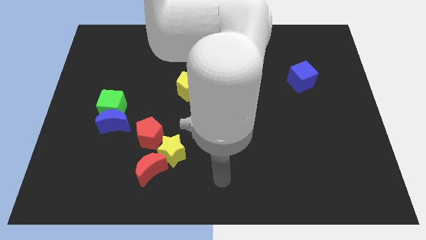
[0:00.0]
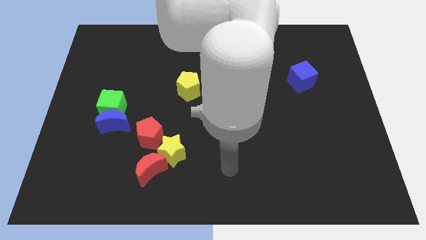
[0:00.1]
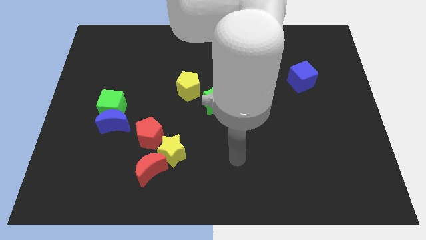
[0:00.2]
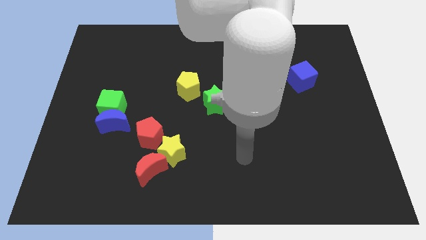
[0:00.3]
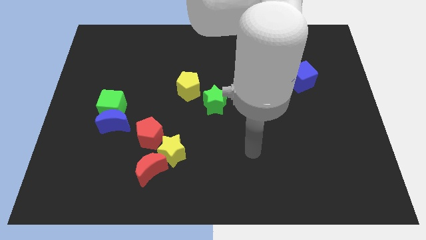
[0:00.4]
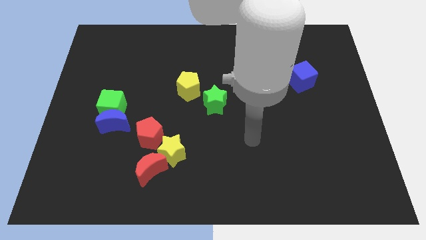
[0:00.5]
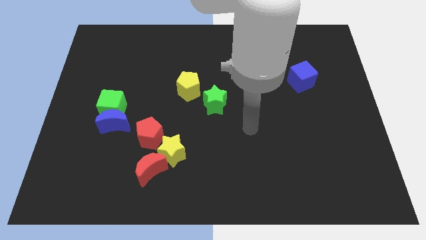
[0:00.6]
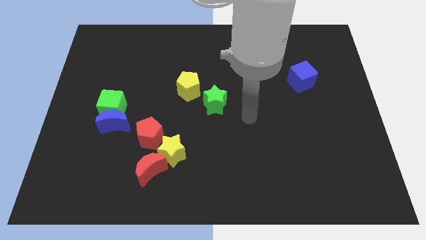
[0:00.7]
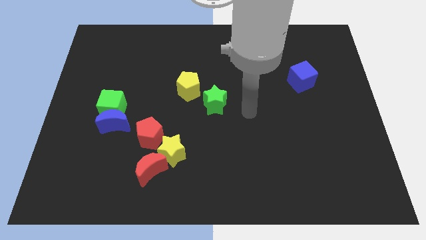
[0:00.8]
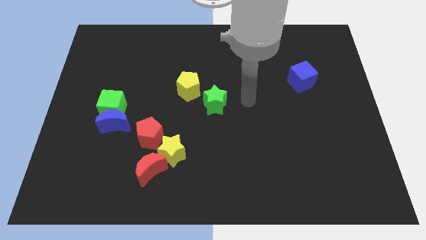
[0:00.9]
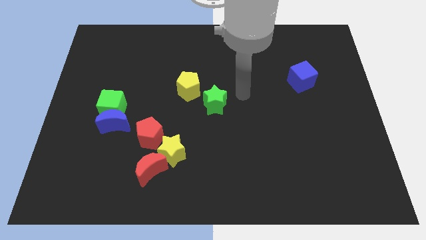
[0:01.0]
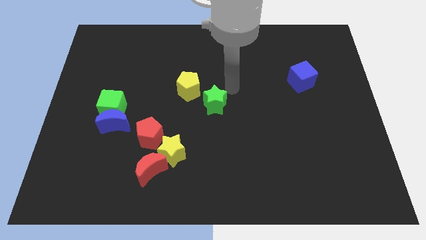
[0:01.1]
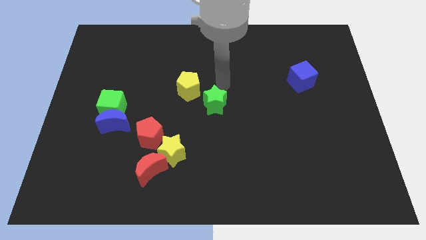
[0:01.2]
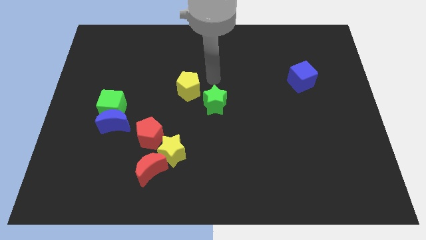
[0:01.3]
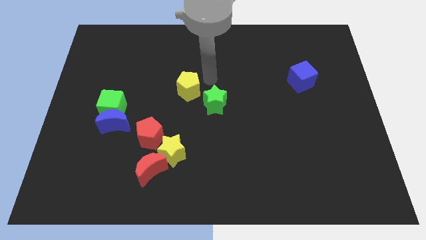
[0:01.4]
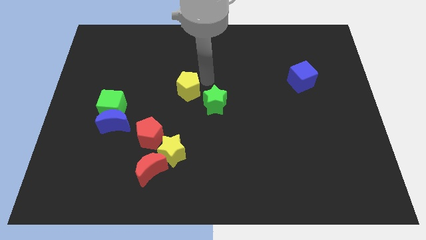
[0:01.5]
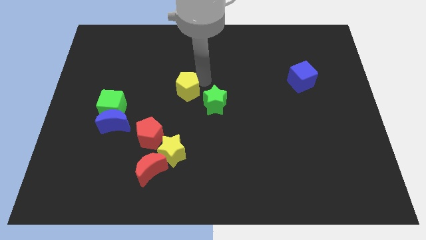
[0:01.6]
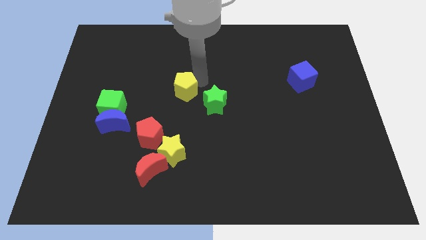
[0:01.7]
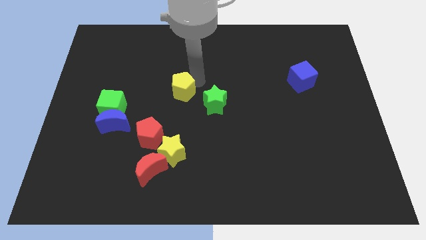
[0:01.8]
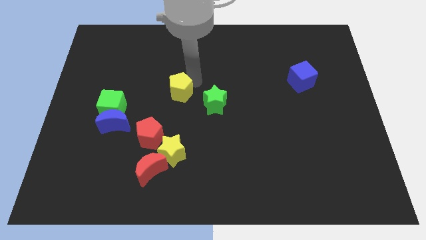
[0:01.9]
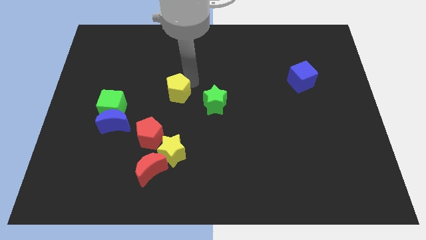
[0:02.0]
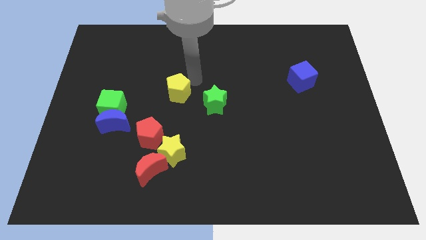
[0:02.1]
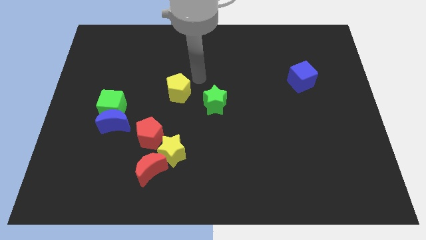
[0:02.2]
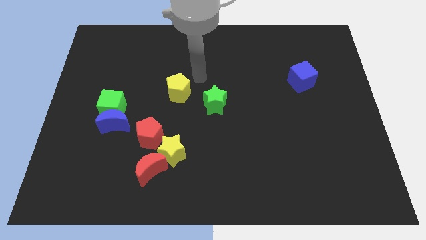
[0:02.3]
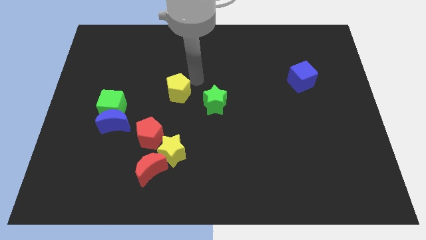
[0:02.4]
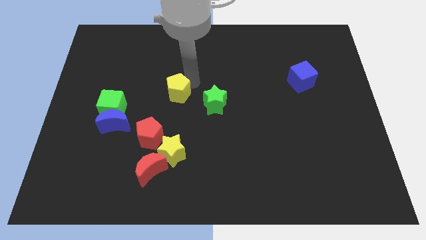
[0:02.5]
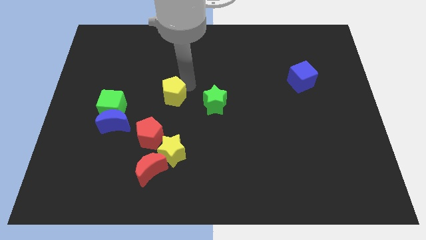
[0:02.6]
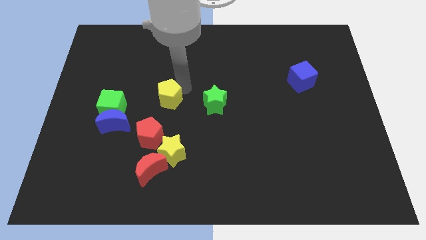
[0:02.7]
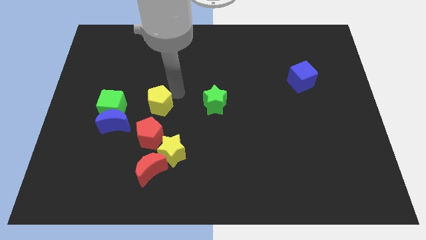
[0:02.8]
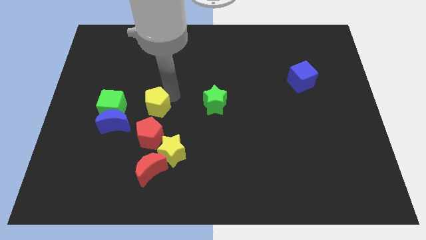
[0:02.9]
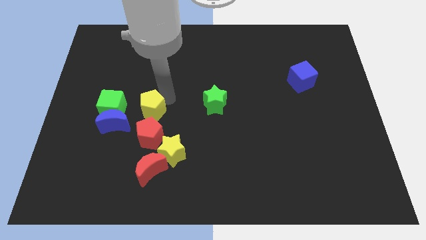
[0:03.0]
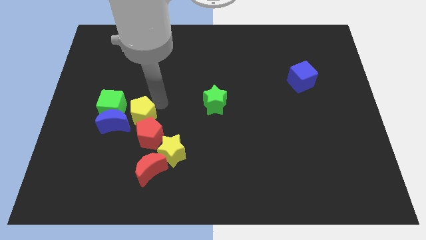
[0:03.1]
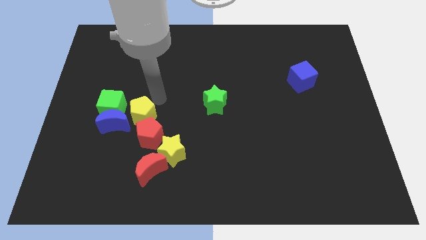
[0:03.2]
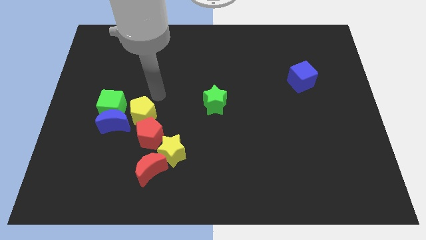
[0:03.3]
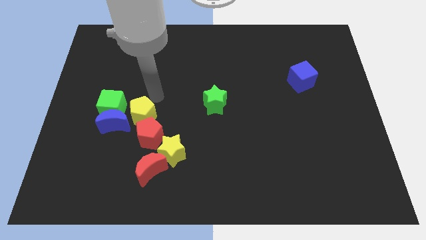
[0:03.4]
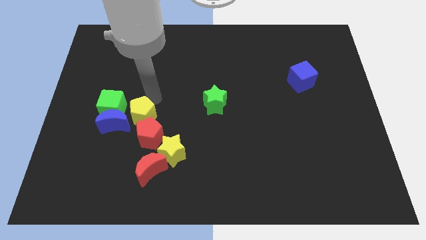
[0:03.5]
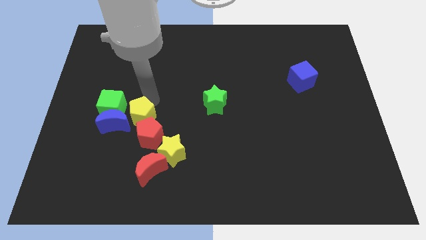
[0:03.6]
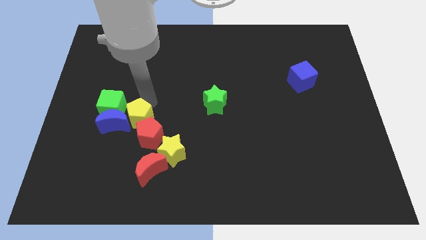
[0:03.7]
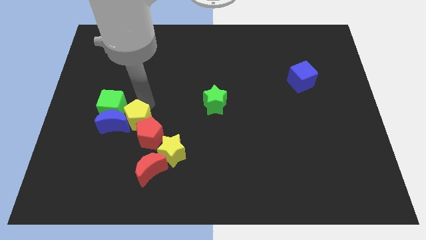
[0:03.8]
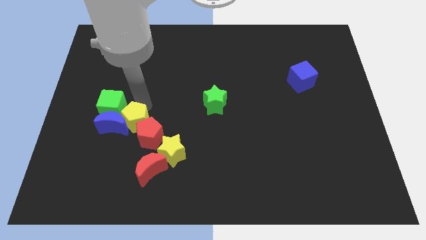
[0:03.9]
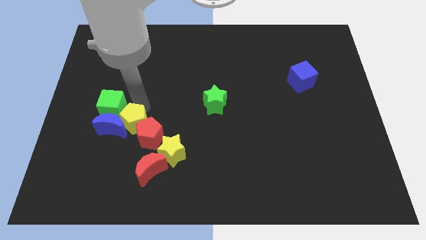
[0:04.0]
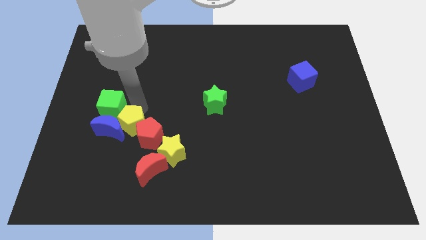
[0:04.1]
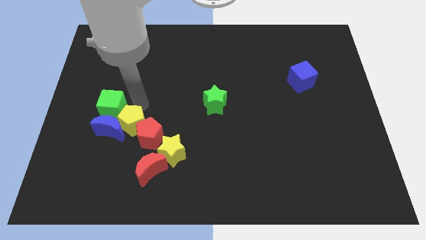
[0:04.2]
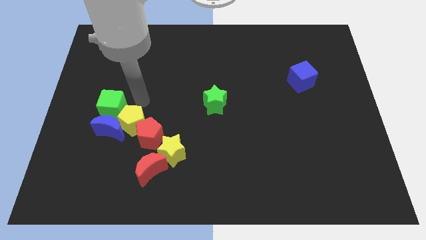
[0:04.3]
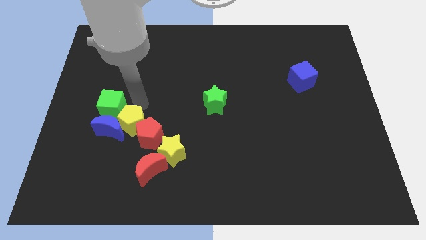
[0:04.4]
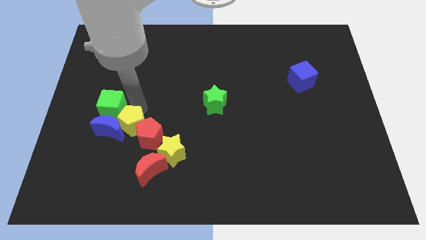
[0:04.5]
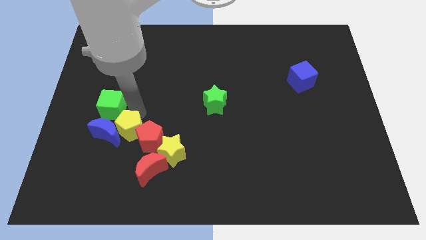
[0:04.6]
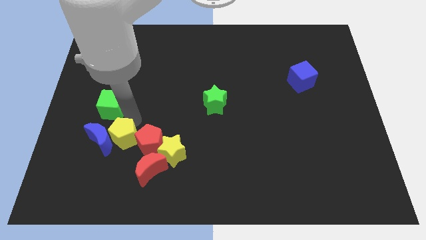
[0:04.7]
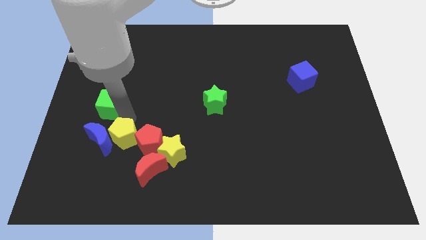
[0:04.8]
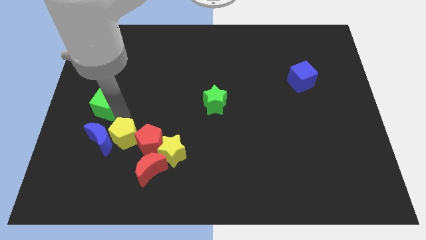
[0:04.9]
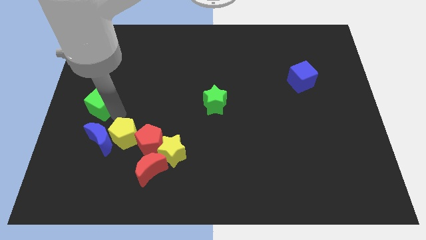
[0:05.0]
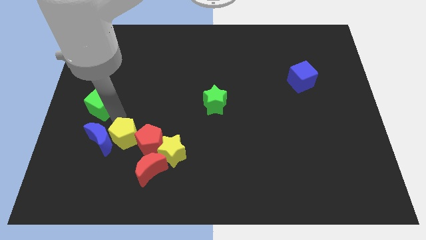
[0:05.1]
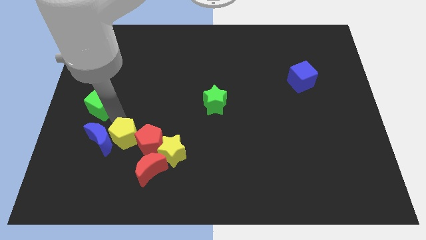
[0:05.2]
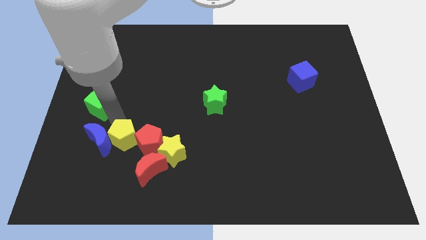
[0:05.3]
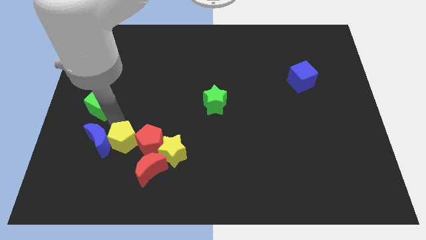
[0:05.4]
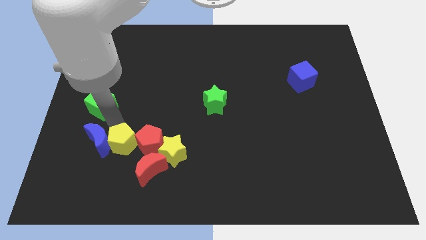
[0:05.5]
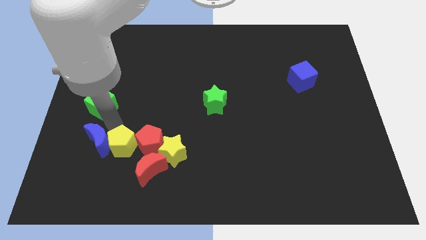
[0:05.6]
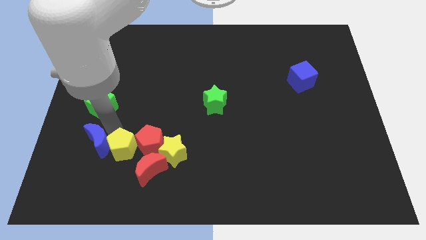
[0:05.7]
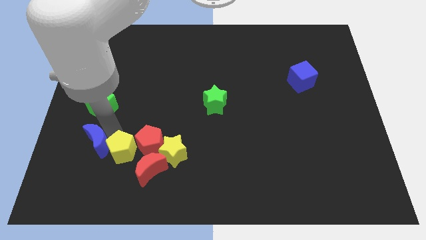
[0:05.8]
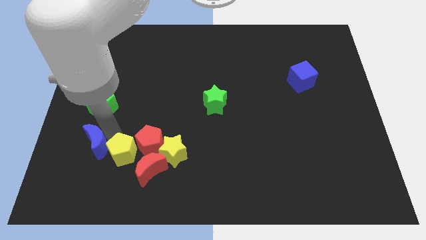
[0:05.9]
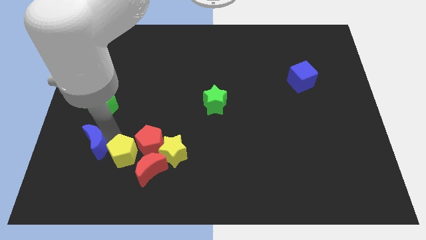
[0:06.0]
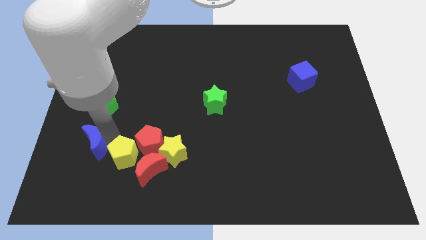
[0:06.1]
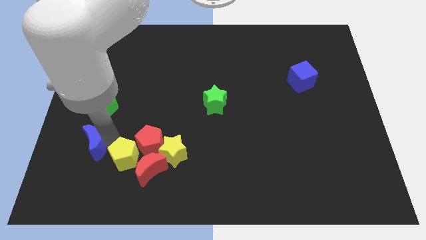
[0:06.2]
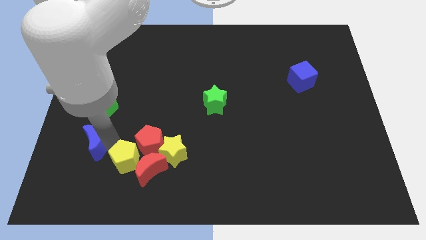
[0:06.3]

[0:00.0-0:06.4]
slide the yellow pentagon to the red moon
